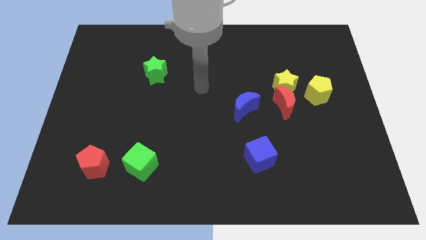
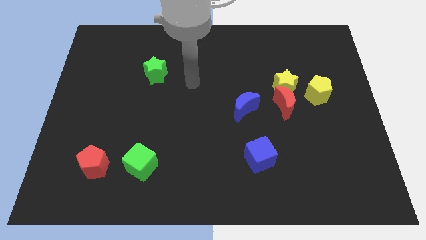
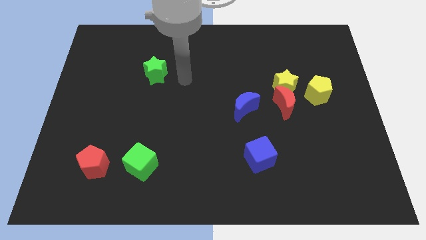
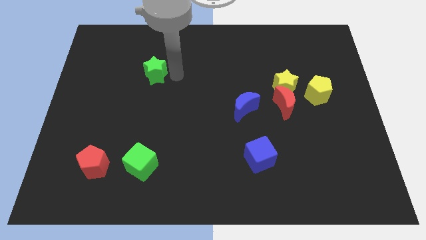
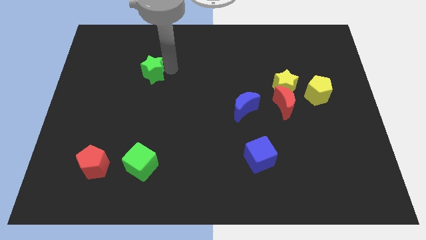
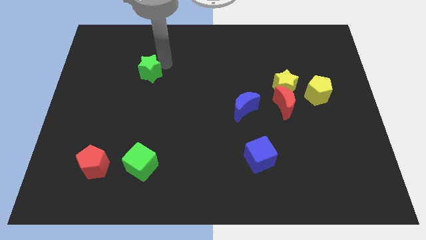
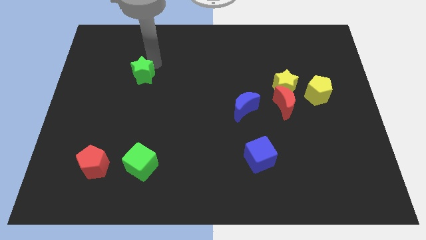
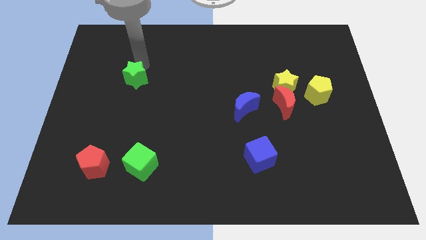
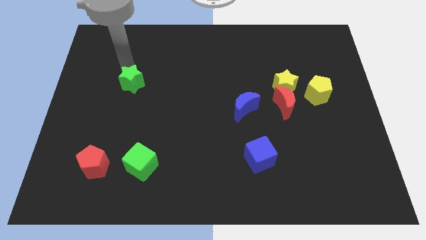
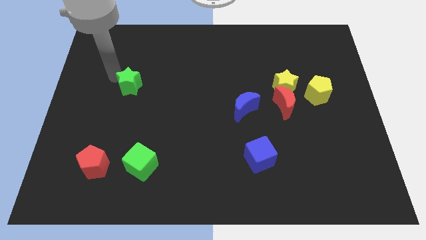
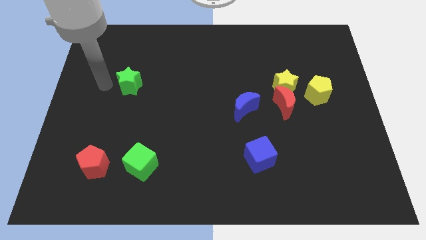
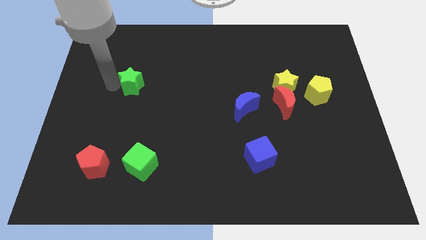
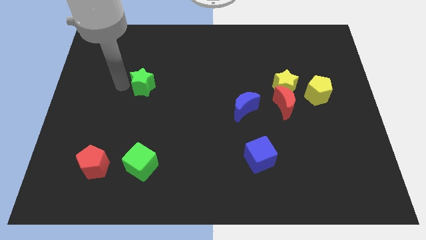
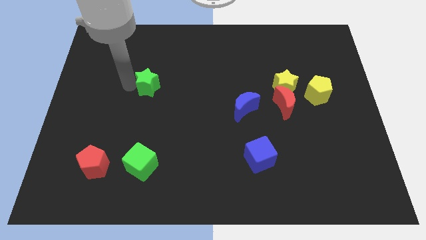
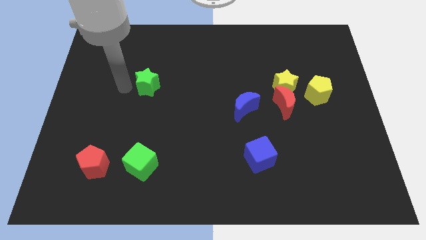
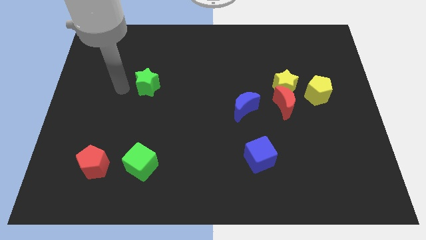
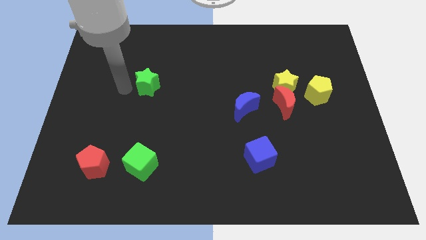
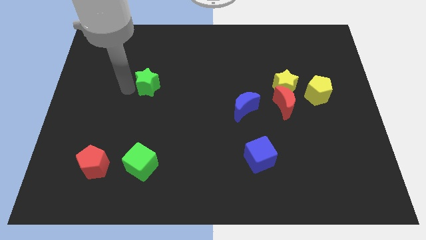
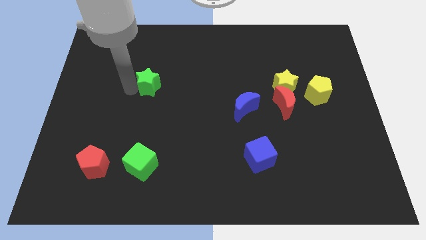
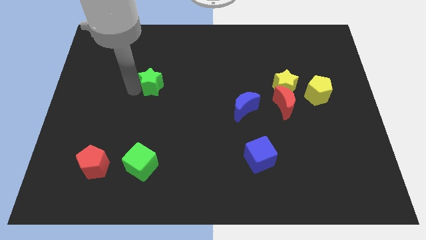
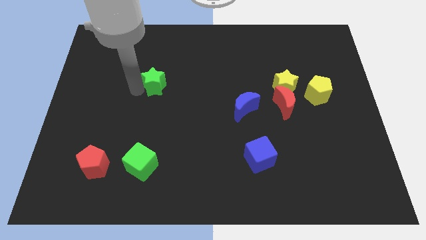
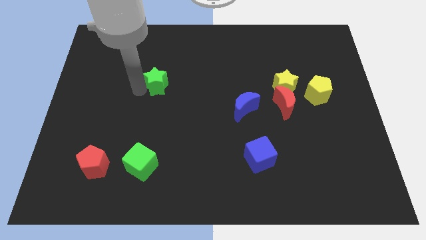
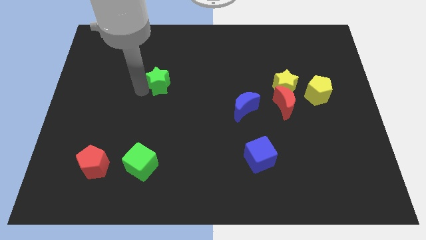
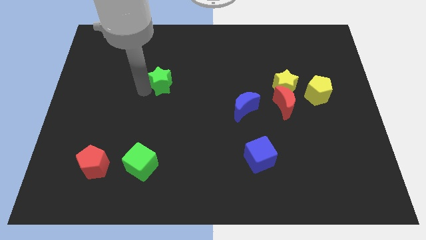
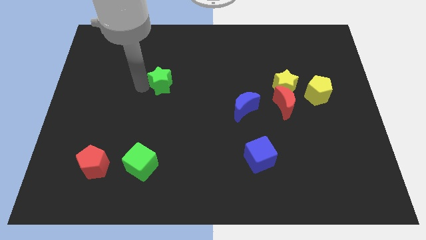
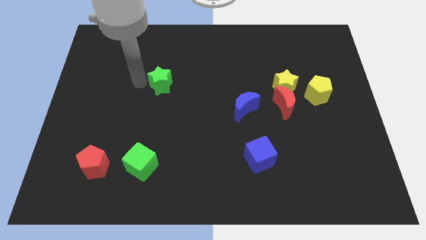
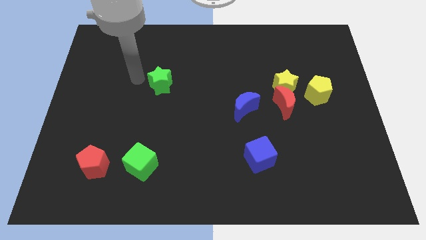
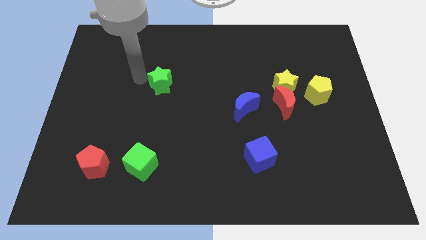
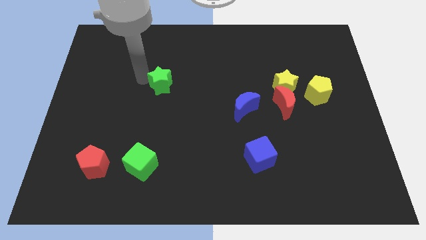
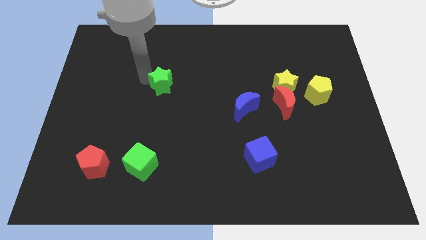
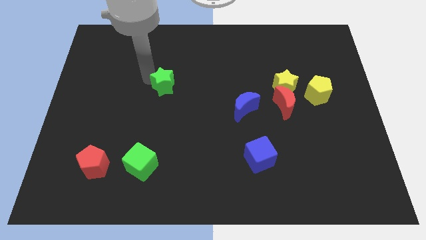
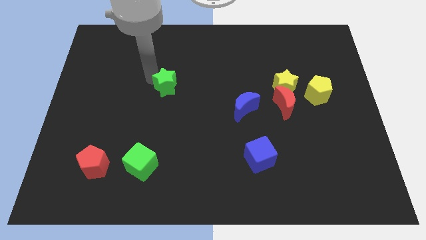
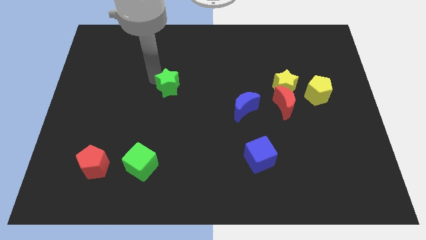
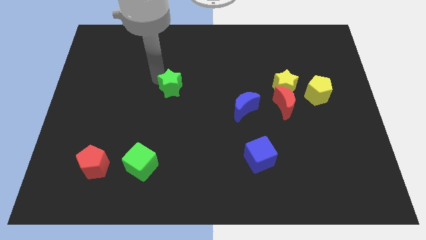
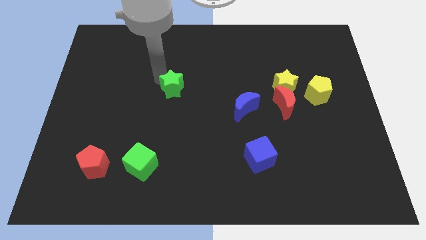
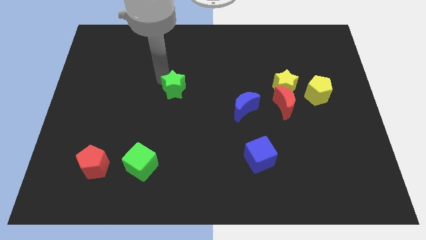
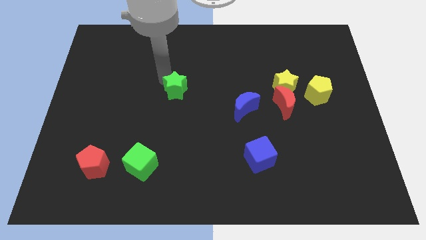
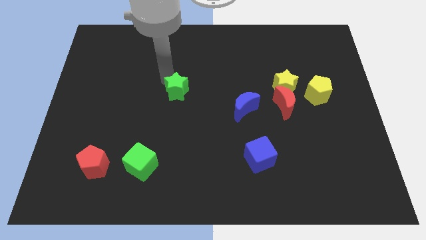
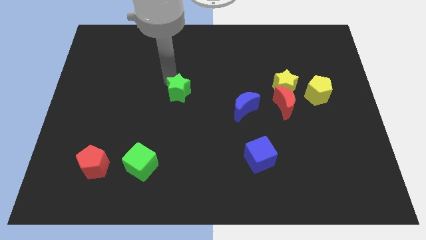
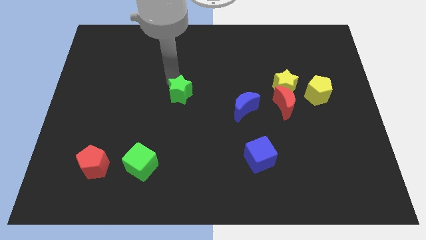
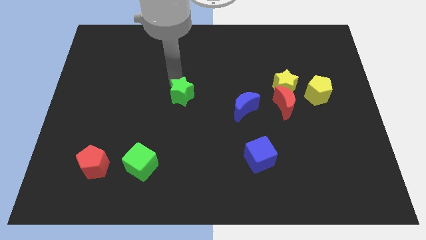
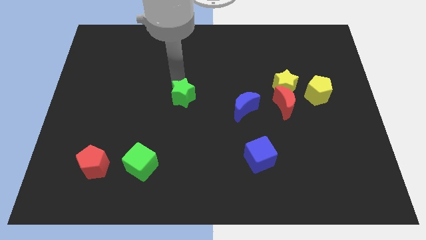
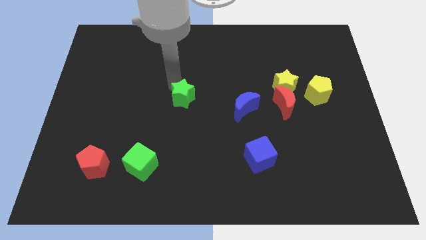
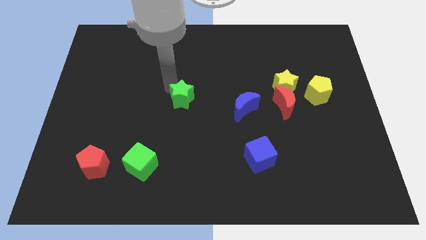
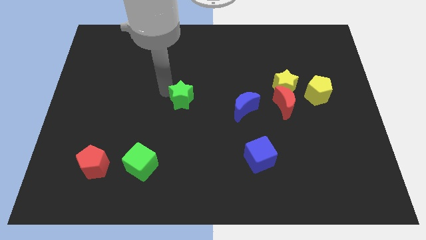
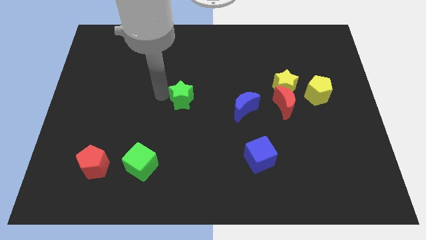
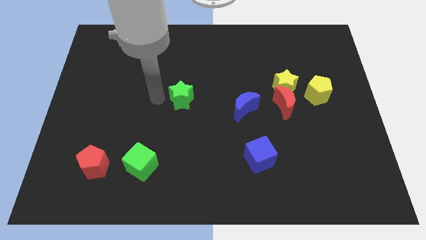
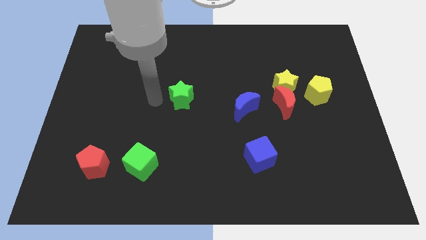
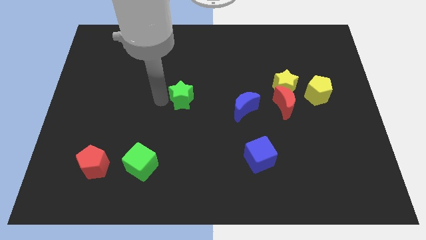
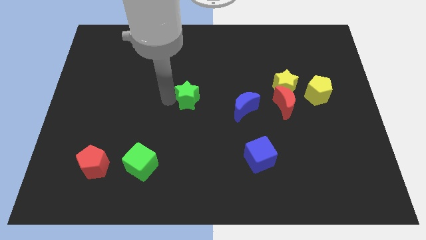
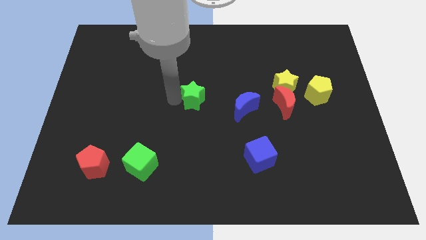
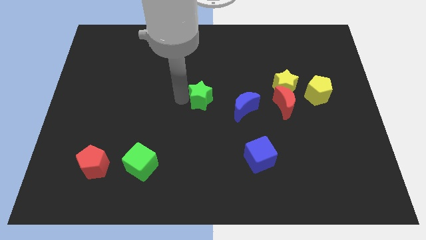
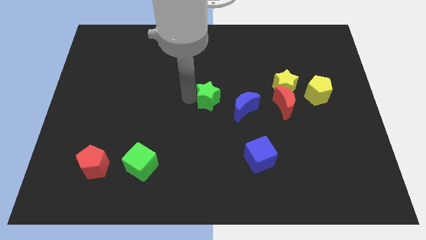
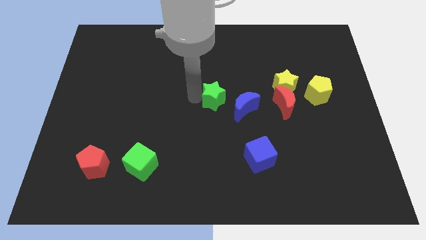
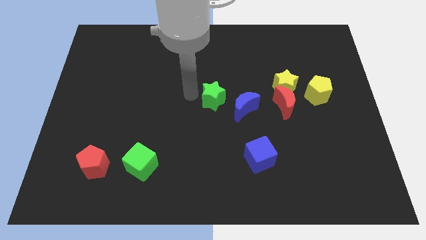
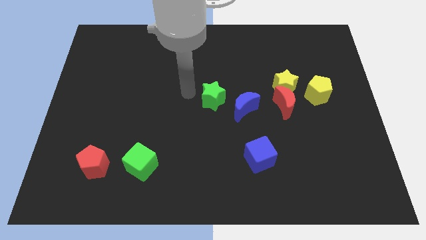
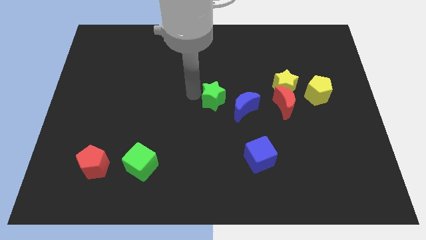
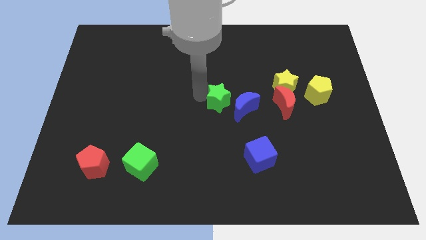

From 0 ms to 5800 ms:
move the green star left of the red moon
